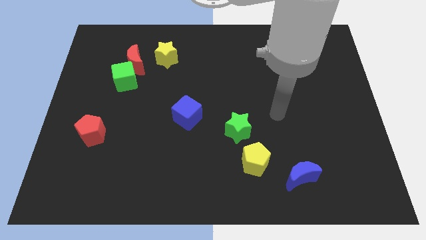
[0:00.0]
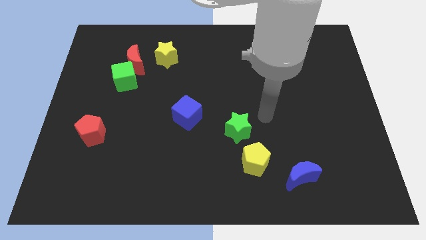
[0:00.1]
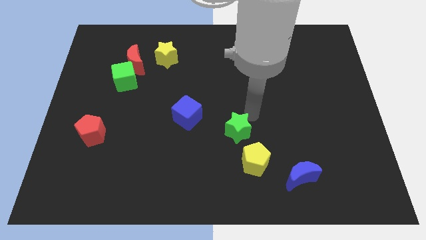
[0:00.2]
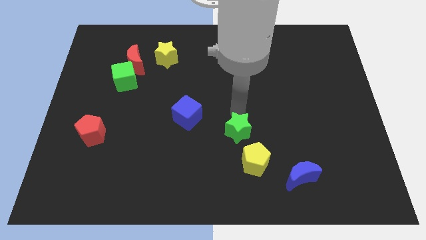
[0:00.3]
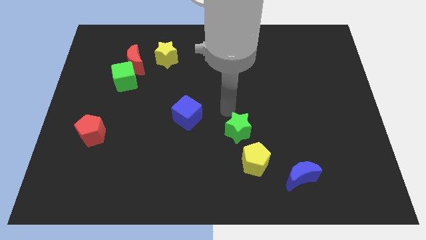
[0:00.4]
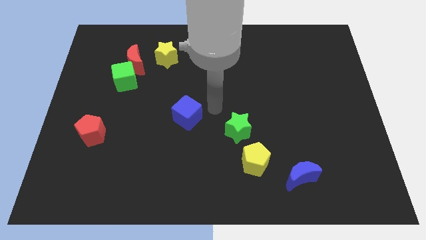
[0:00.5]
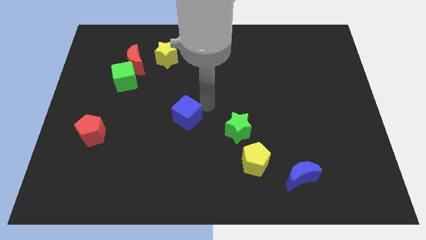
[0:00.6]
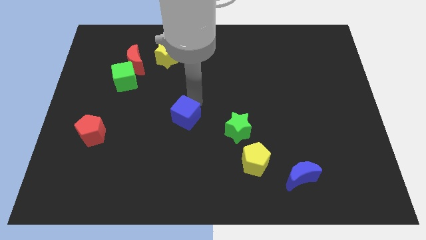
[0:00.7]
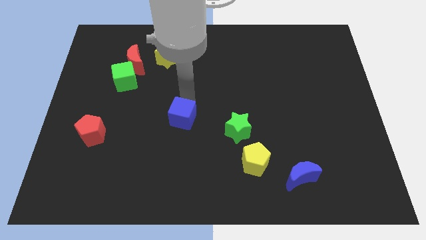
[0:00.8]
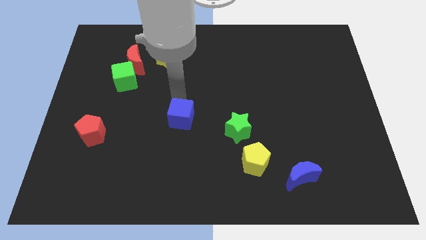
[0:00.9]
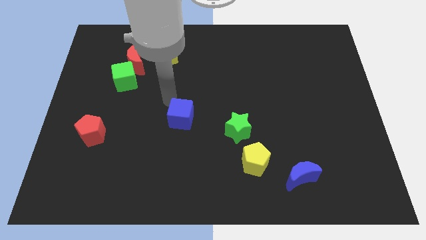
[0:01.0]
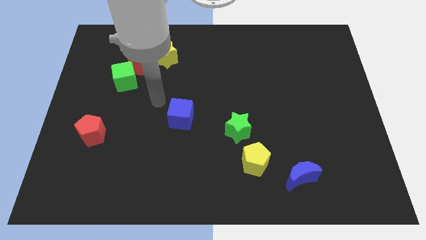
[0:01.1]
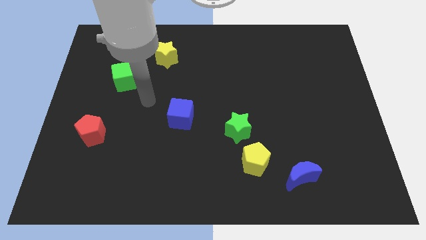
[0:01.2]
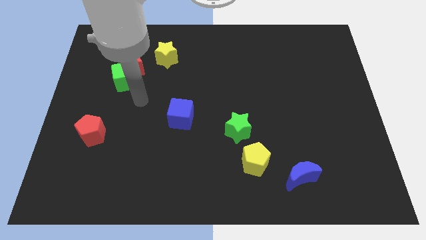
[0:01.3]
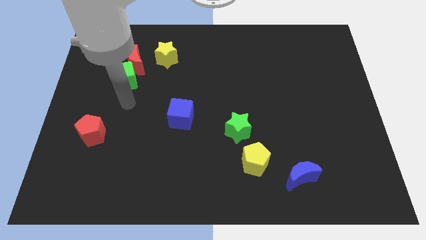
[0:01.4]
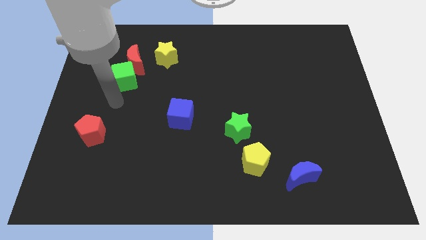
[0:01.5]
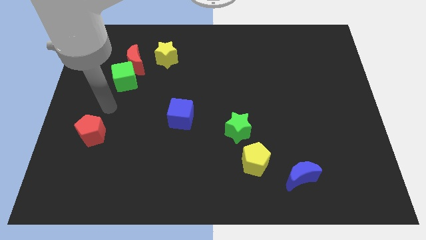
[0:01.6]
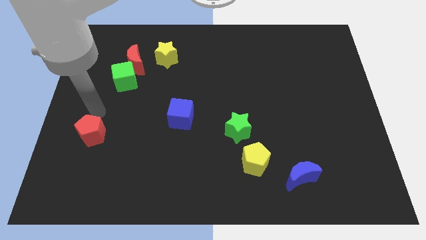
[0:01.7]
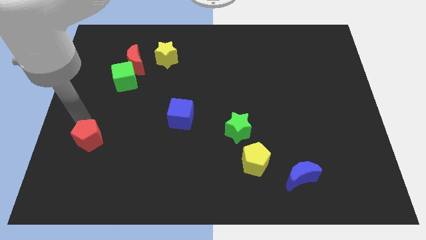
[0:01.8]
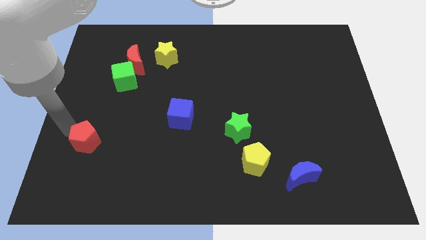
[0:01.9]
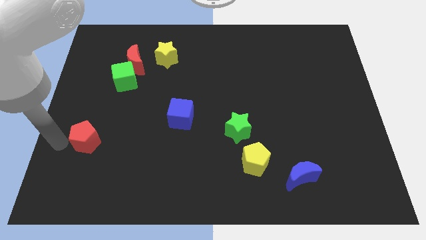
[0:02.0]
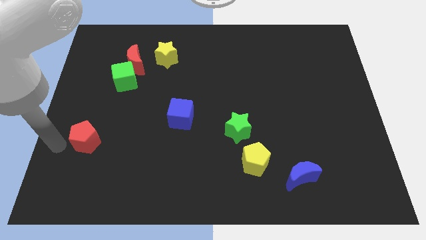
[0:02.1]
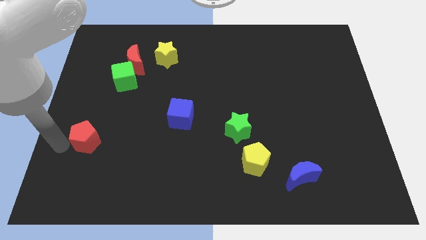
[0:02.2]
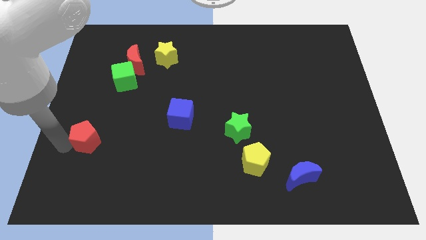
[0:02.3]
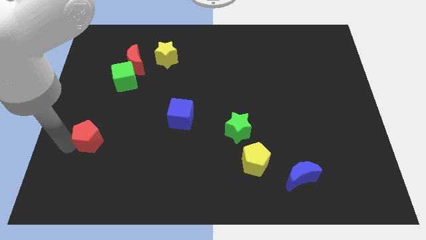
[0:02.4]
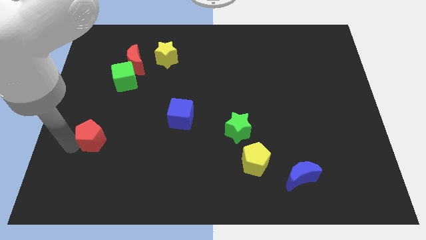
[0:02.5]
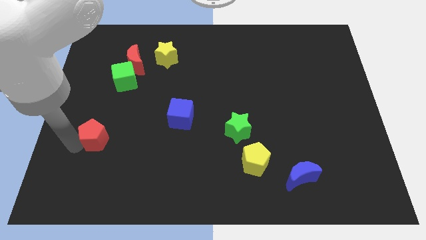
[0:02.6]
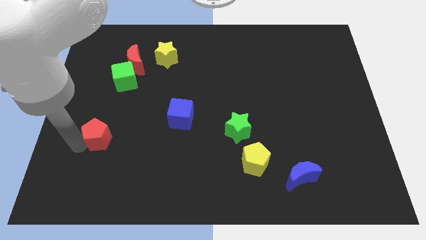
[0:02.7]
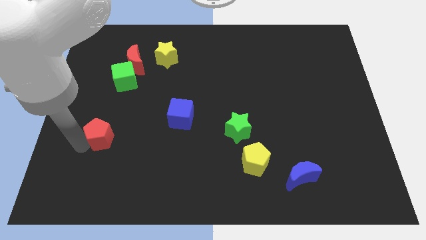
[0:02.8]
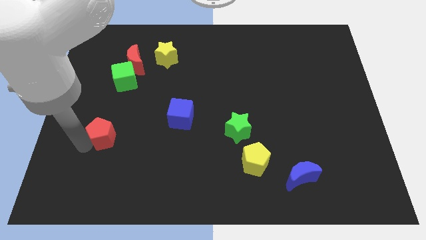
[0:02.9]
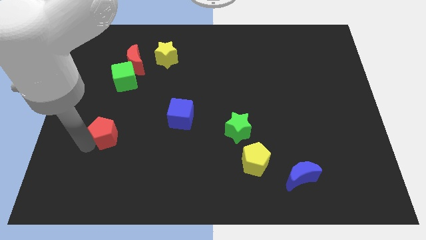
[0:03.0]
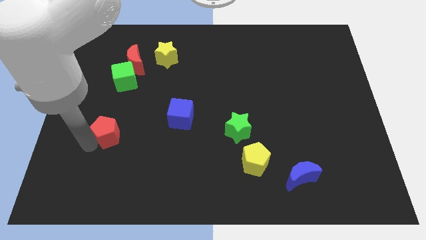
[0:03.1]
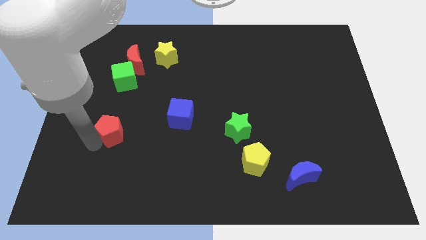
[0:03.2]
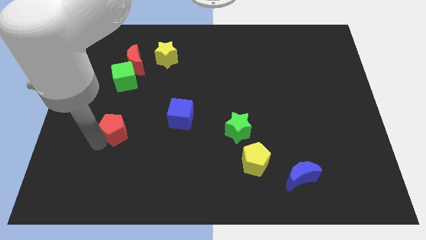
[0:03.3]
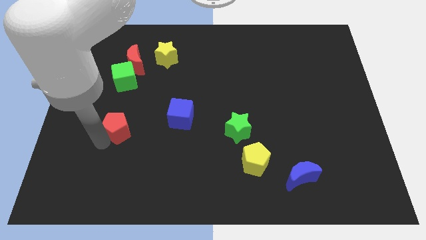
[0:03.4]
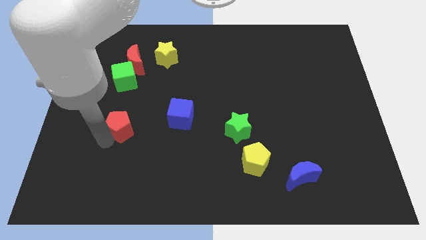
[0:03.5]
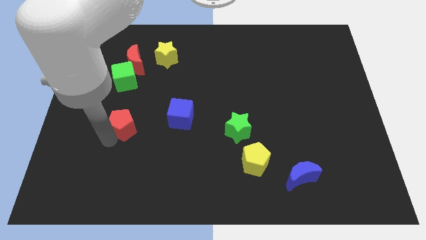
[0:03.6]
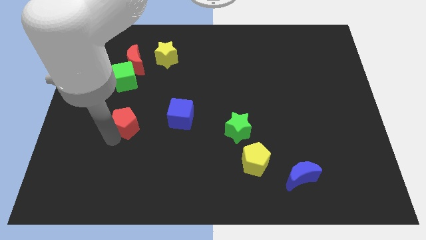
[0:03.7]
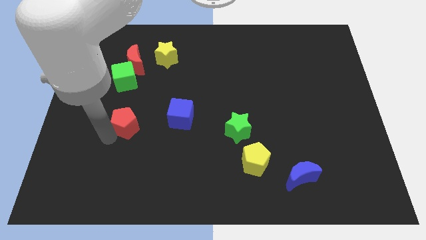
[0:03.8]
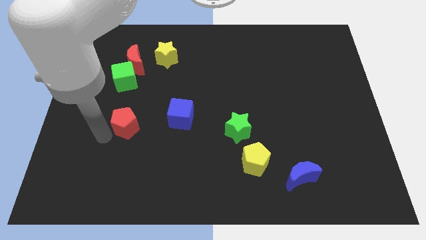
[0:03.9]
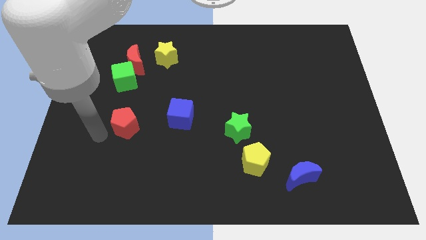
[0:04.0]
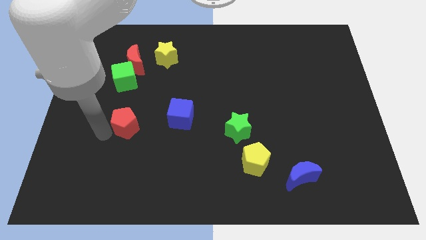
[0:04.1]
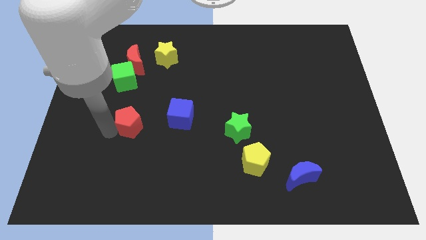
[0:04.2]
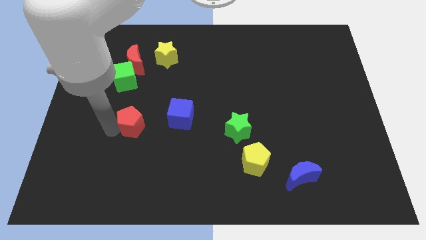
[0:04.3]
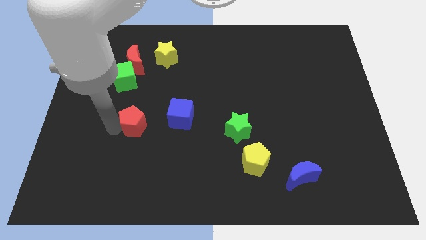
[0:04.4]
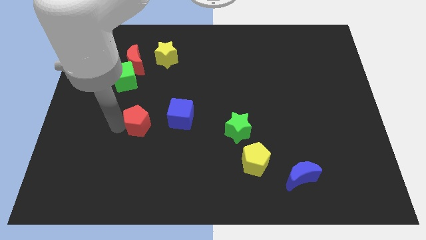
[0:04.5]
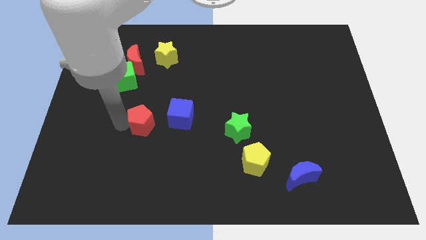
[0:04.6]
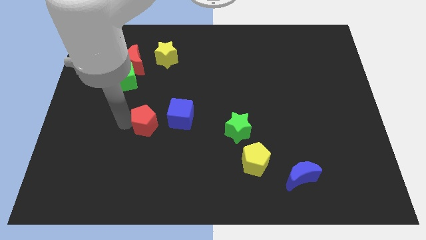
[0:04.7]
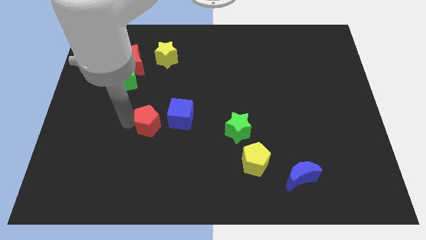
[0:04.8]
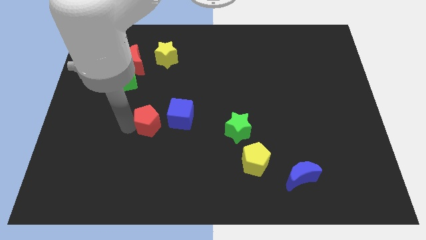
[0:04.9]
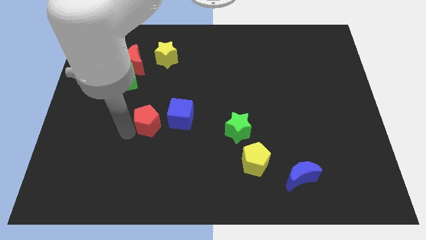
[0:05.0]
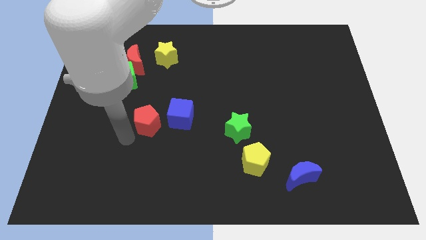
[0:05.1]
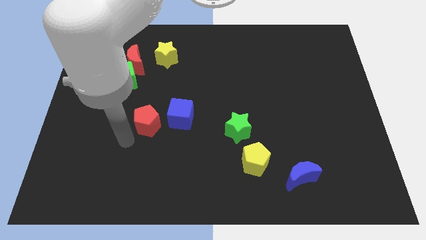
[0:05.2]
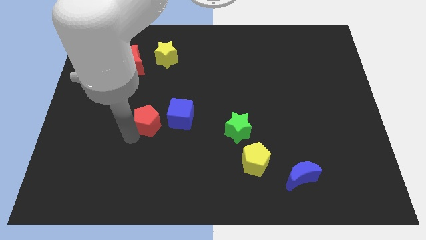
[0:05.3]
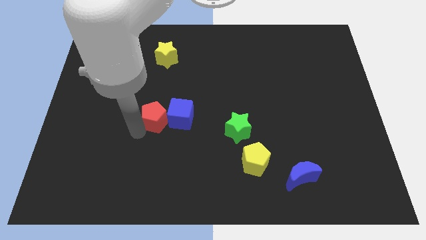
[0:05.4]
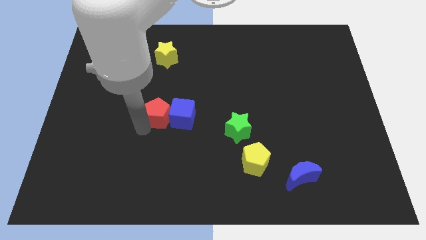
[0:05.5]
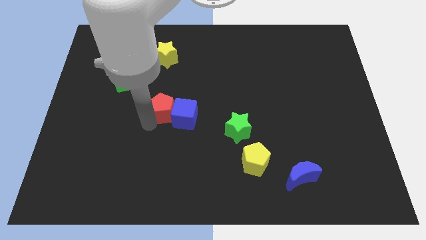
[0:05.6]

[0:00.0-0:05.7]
put the red pentagon to the center

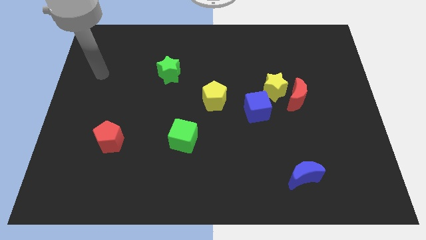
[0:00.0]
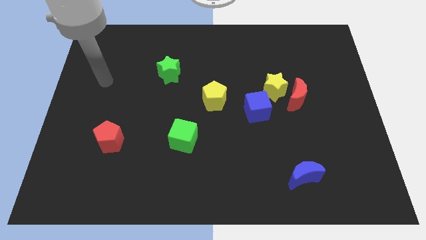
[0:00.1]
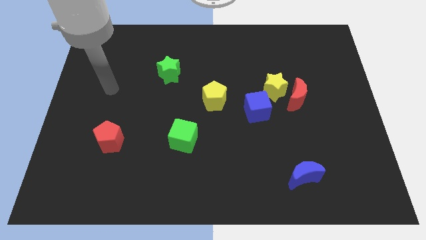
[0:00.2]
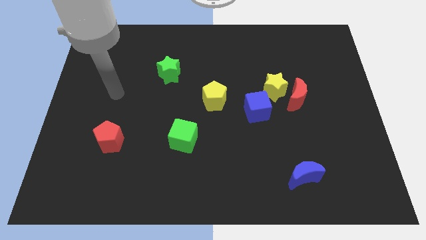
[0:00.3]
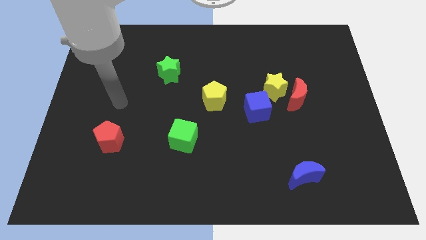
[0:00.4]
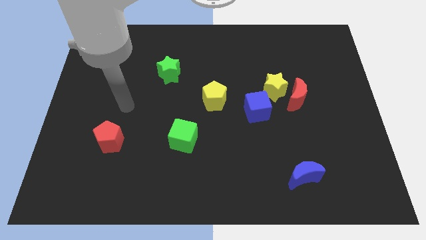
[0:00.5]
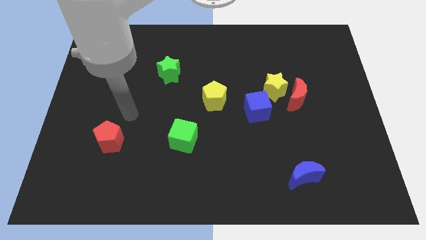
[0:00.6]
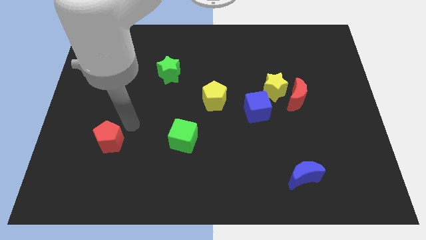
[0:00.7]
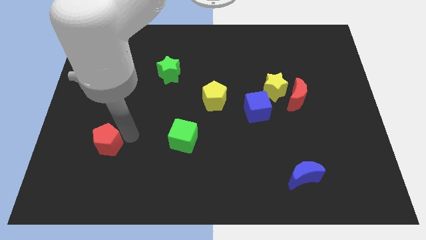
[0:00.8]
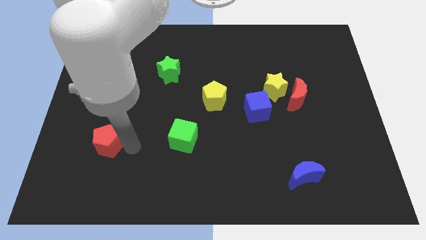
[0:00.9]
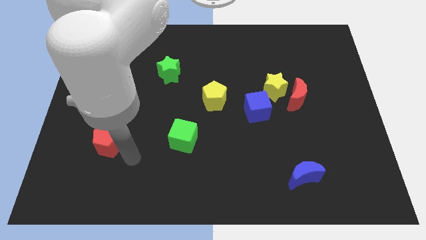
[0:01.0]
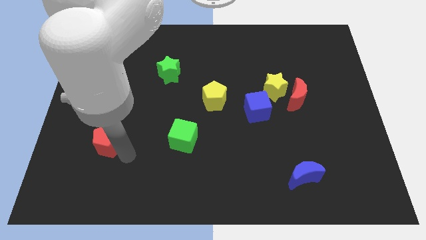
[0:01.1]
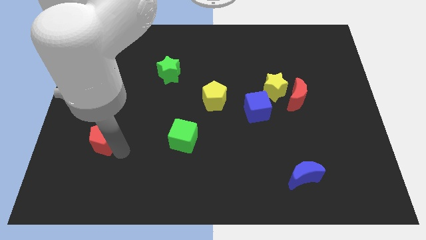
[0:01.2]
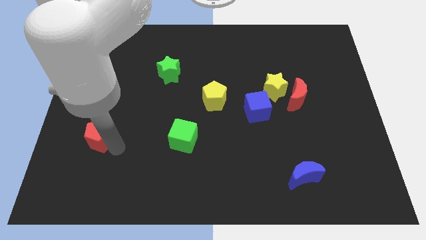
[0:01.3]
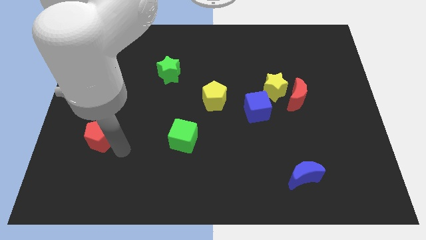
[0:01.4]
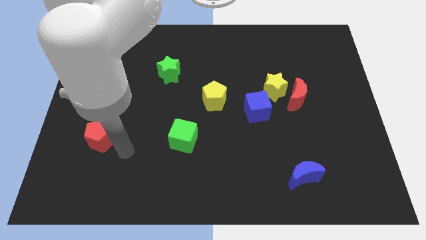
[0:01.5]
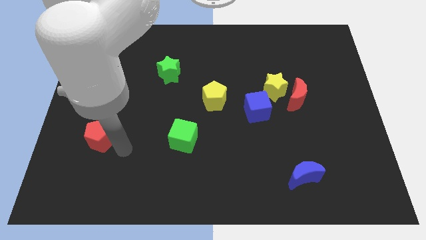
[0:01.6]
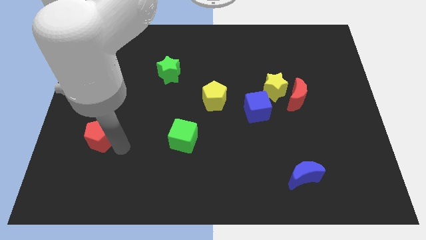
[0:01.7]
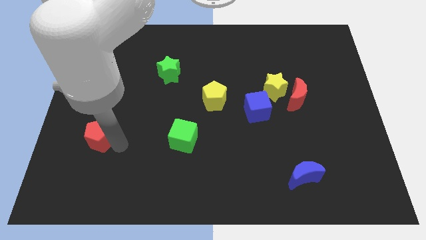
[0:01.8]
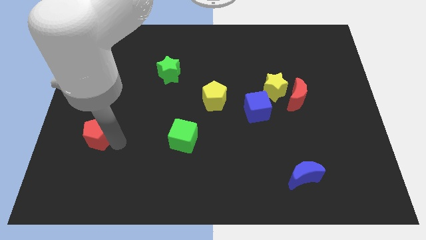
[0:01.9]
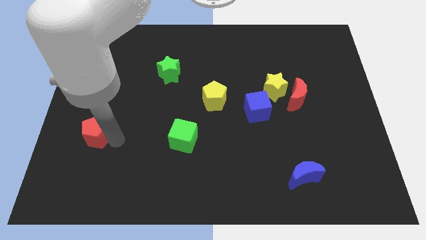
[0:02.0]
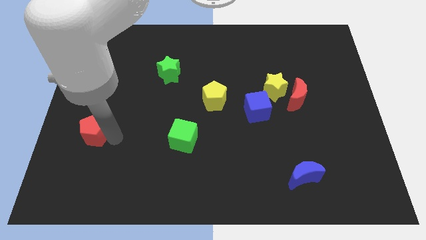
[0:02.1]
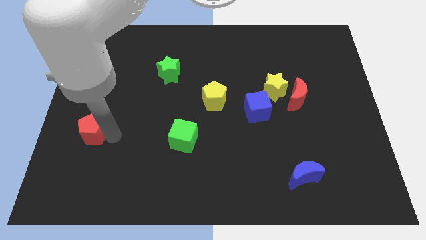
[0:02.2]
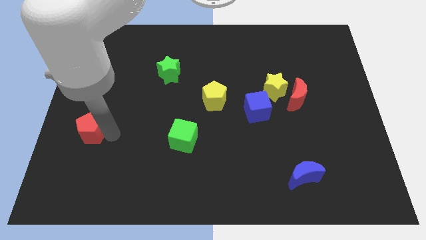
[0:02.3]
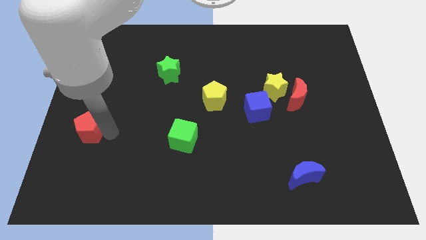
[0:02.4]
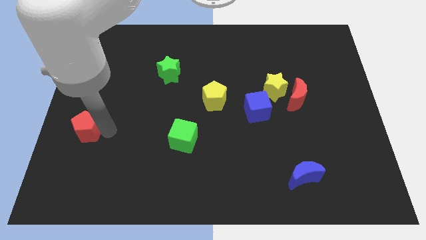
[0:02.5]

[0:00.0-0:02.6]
slide the red pentagon to the left side of the board
